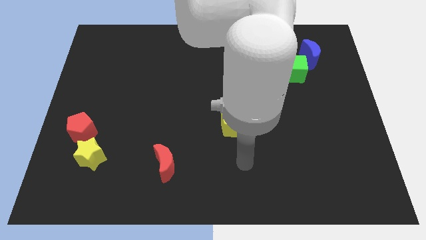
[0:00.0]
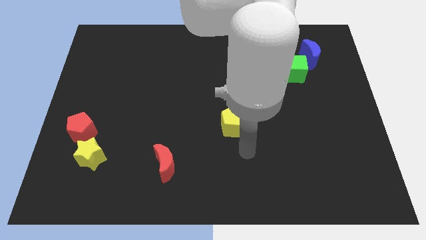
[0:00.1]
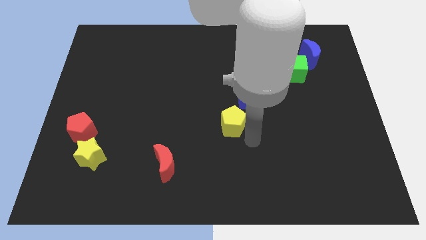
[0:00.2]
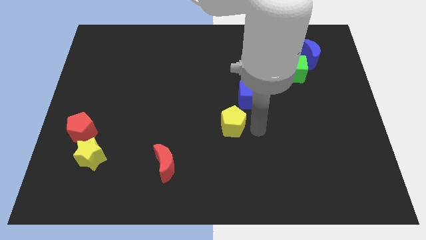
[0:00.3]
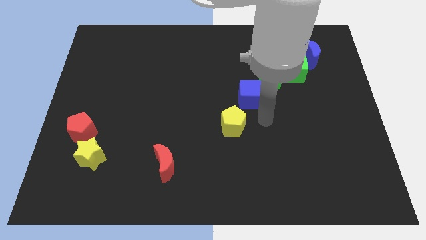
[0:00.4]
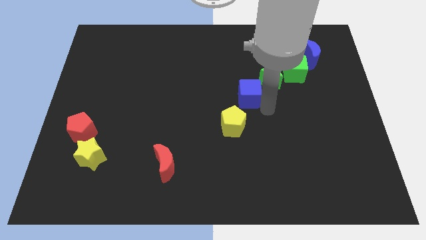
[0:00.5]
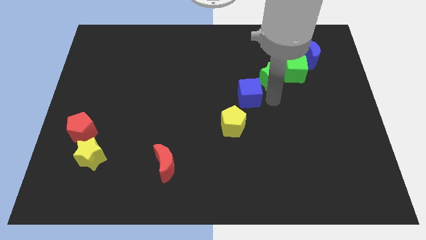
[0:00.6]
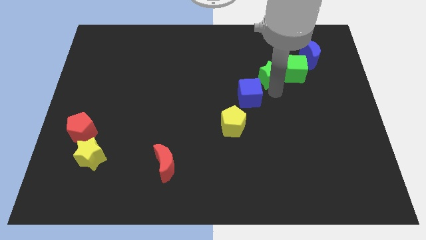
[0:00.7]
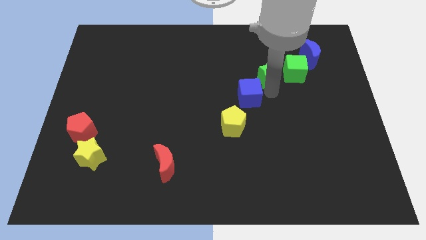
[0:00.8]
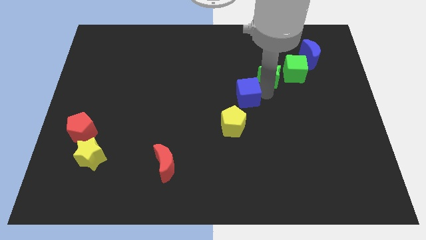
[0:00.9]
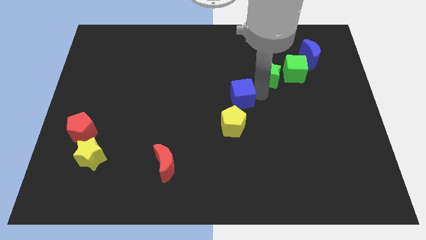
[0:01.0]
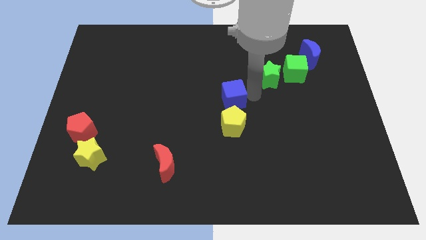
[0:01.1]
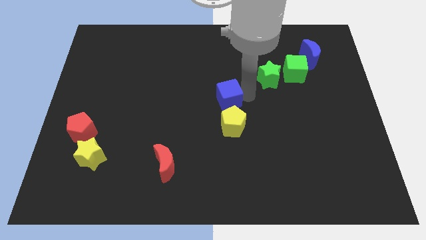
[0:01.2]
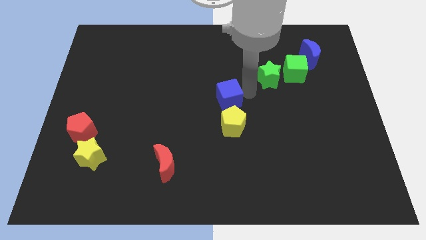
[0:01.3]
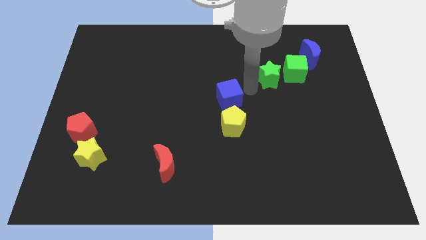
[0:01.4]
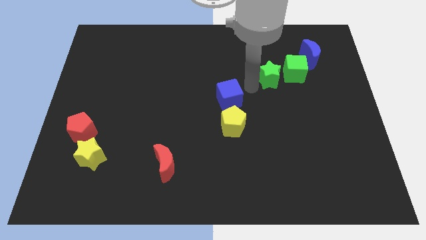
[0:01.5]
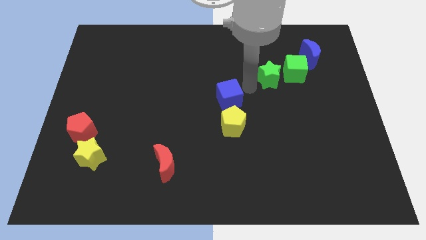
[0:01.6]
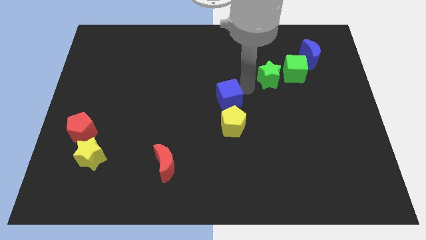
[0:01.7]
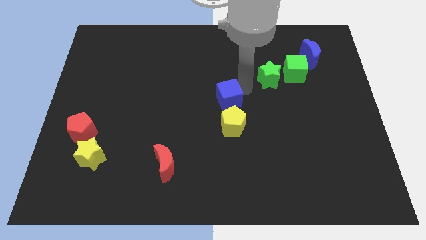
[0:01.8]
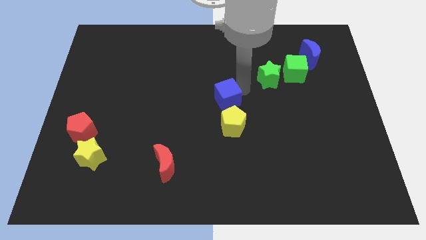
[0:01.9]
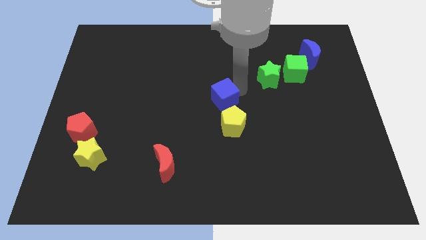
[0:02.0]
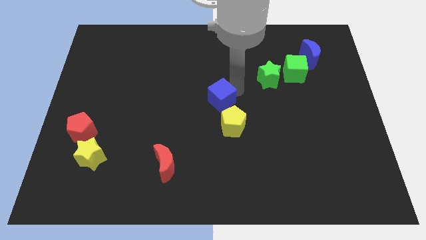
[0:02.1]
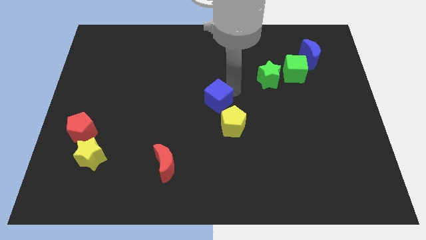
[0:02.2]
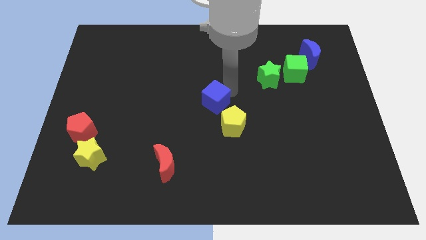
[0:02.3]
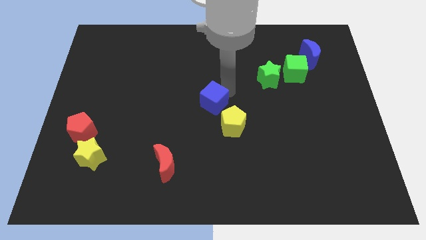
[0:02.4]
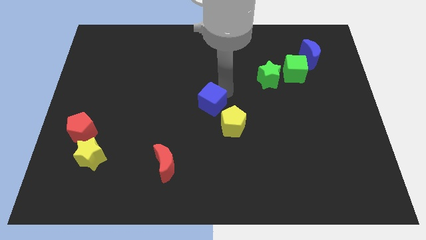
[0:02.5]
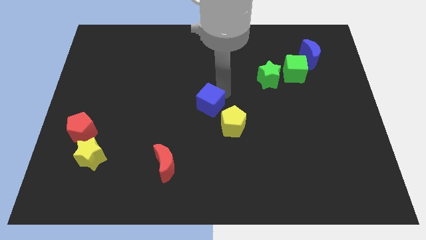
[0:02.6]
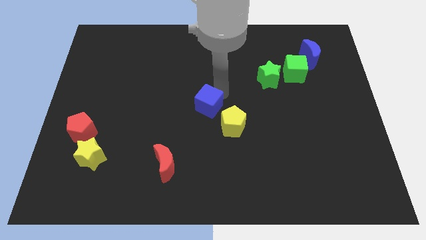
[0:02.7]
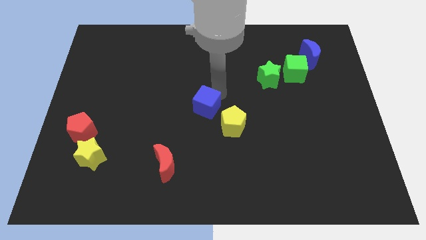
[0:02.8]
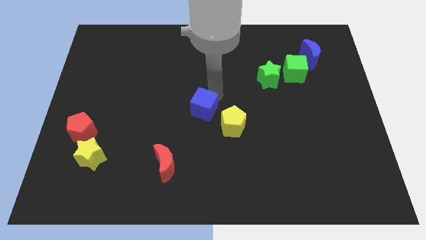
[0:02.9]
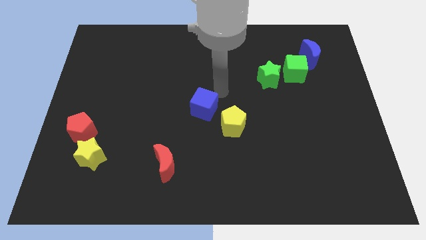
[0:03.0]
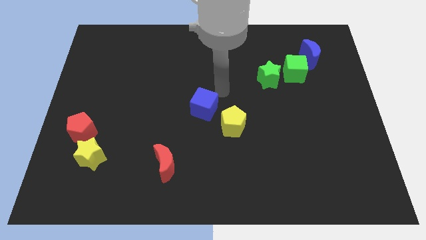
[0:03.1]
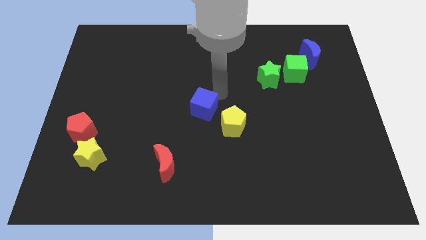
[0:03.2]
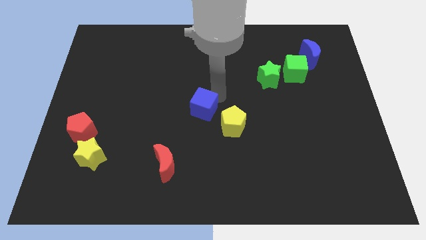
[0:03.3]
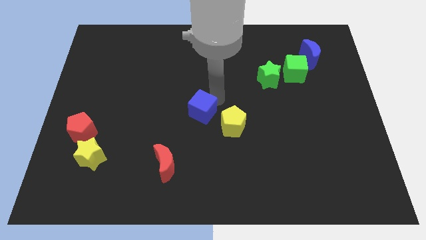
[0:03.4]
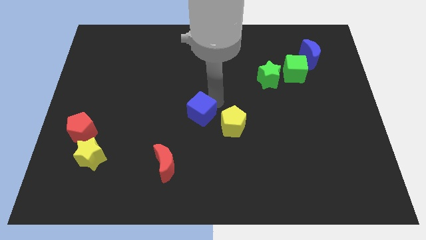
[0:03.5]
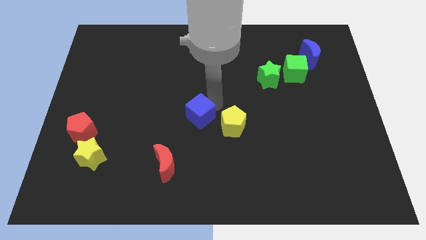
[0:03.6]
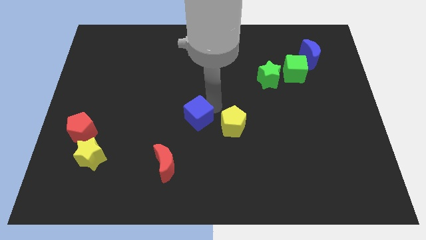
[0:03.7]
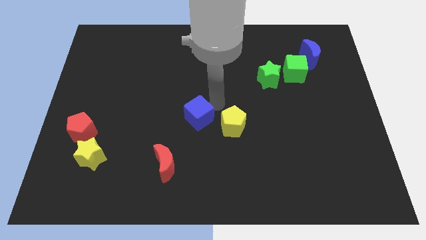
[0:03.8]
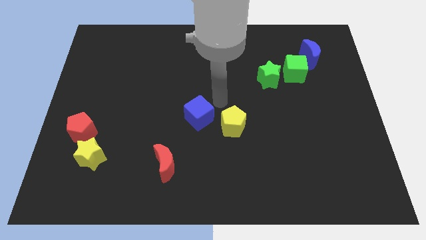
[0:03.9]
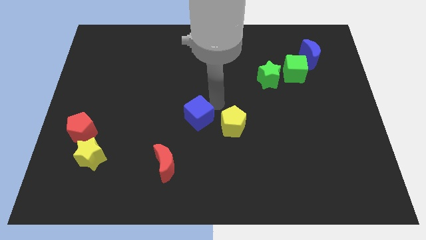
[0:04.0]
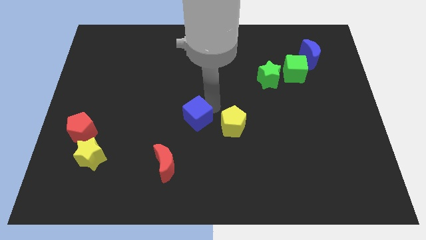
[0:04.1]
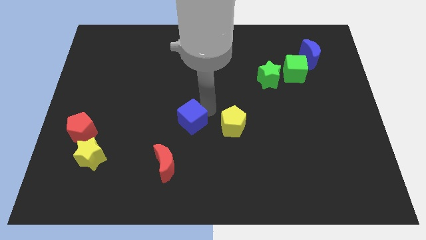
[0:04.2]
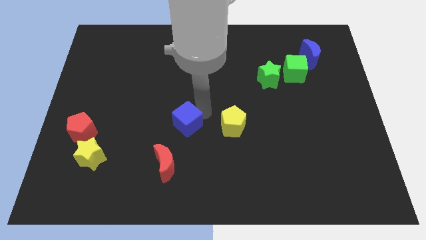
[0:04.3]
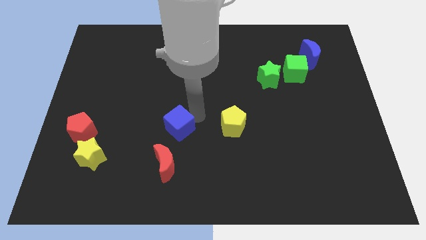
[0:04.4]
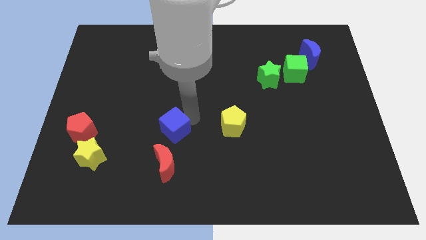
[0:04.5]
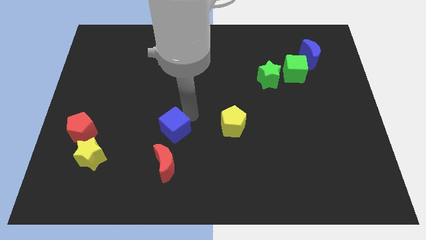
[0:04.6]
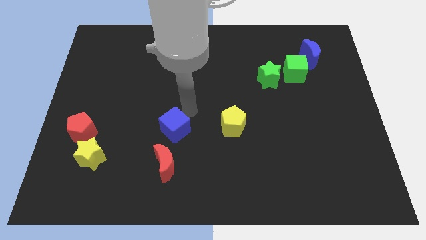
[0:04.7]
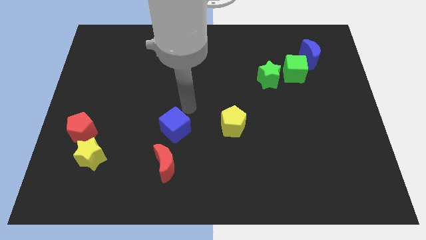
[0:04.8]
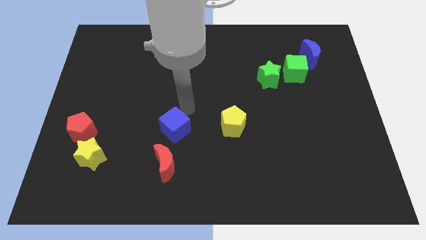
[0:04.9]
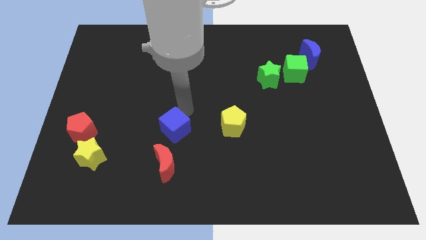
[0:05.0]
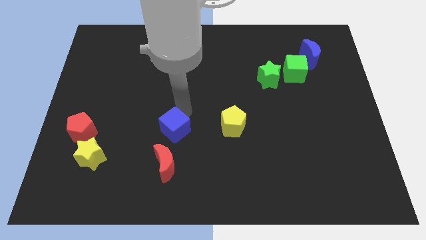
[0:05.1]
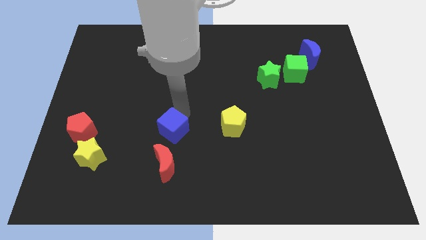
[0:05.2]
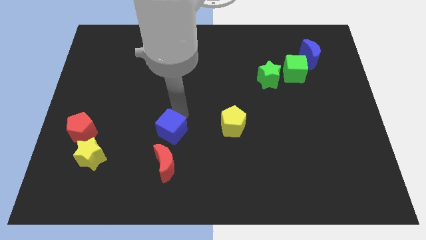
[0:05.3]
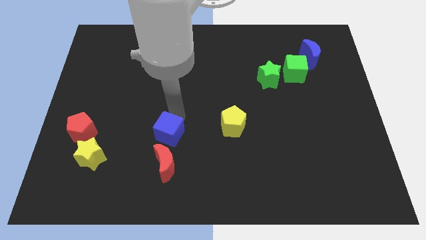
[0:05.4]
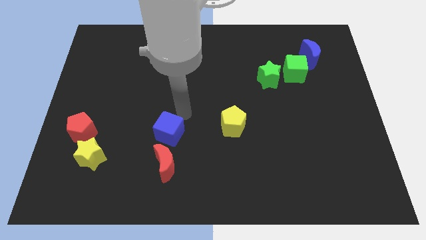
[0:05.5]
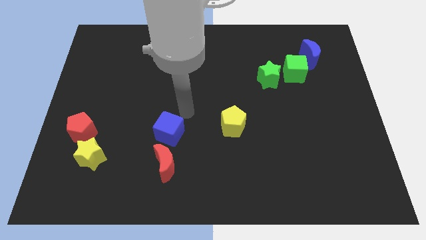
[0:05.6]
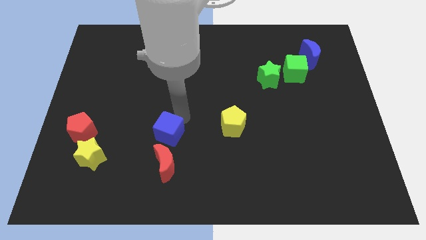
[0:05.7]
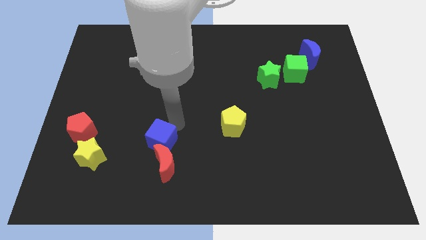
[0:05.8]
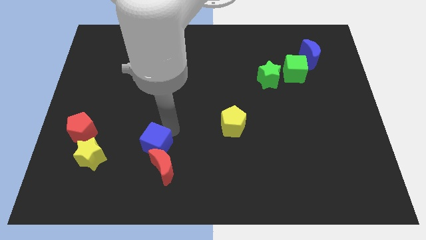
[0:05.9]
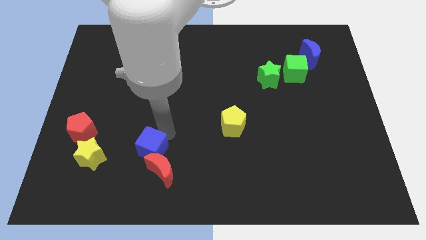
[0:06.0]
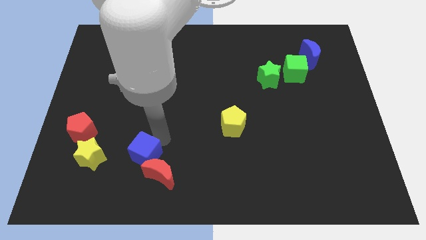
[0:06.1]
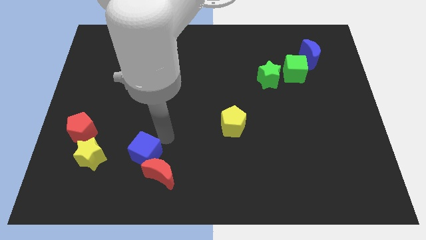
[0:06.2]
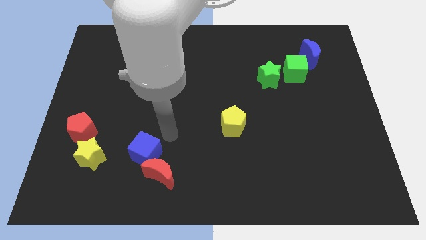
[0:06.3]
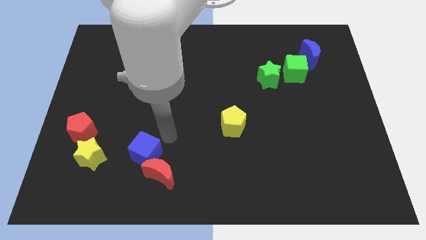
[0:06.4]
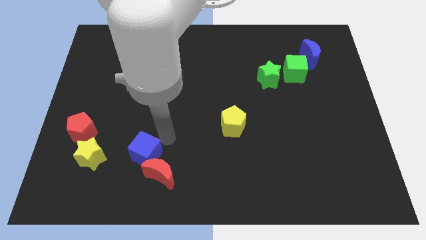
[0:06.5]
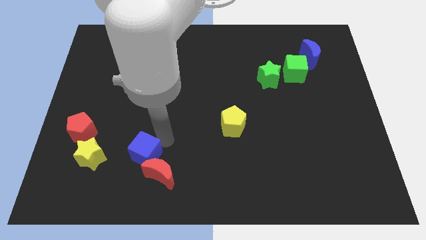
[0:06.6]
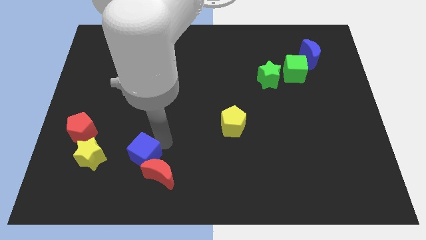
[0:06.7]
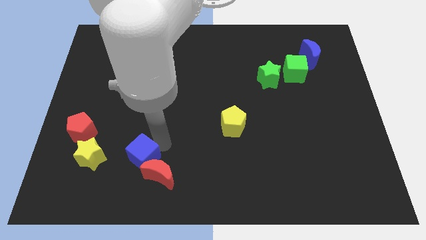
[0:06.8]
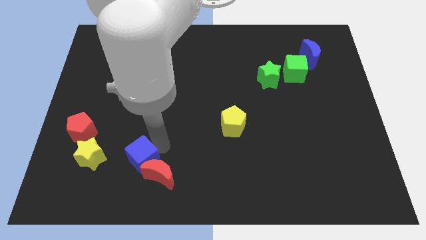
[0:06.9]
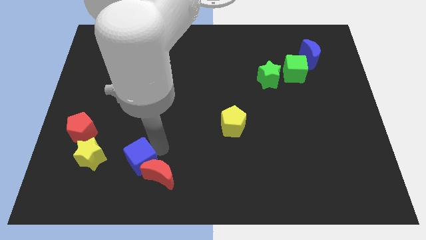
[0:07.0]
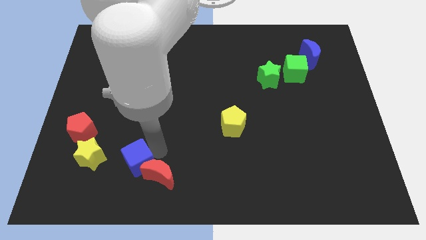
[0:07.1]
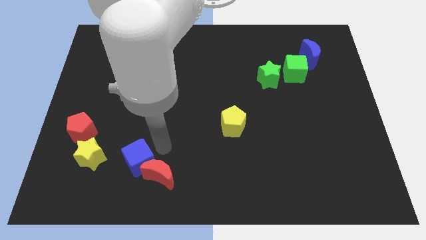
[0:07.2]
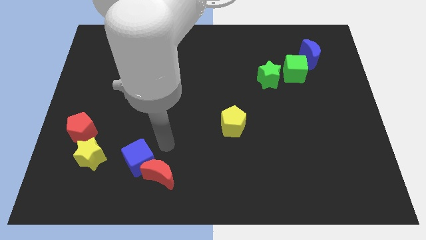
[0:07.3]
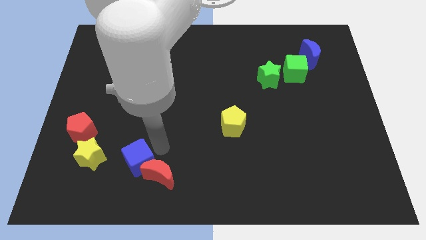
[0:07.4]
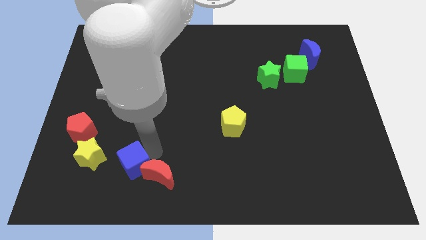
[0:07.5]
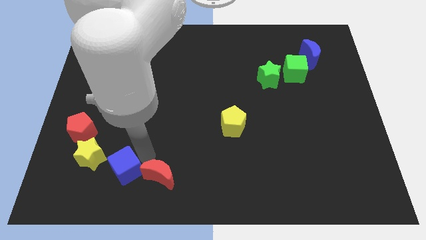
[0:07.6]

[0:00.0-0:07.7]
move the blue cube diagonally down and to the right of the yellow star

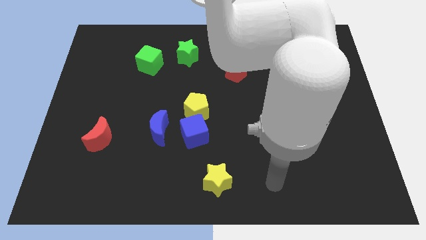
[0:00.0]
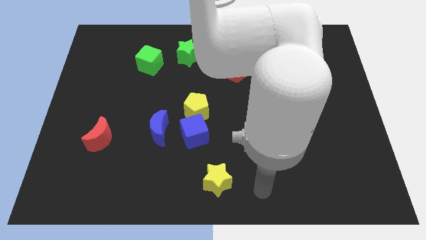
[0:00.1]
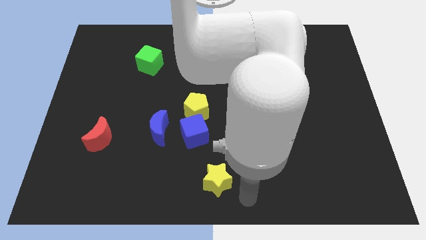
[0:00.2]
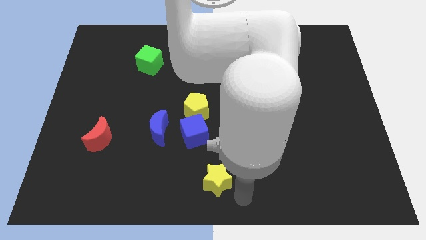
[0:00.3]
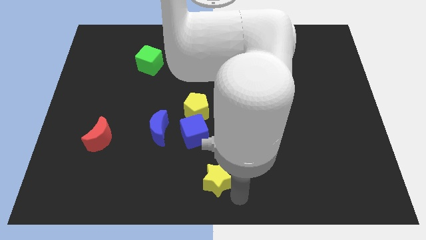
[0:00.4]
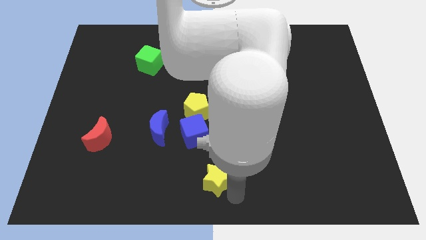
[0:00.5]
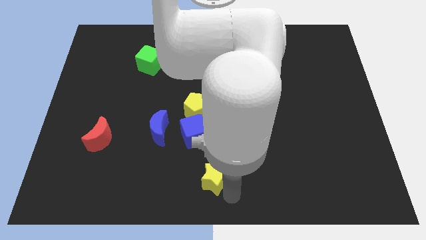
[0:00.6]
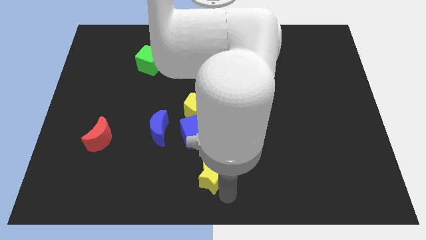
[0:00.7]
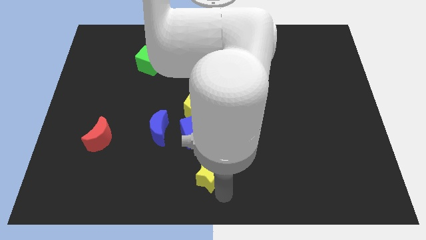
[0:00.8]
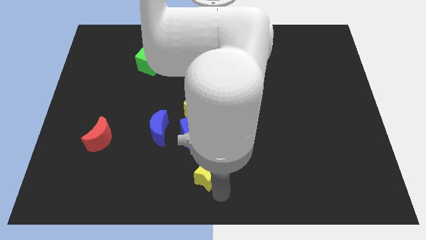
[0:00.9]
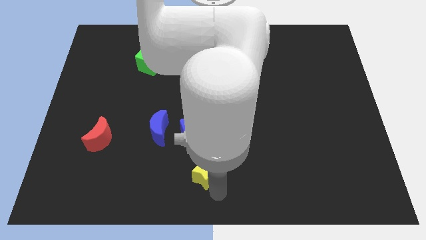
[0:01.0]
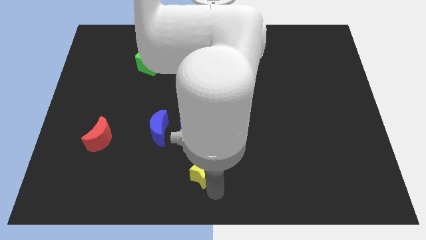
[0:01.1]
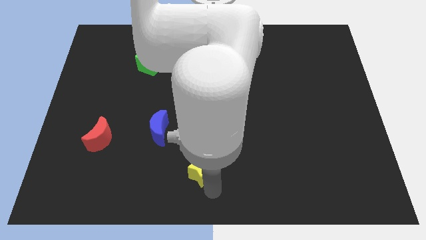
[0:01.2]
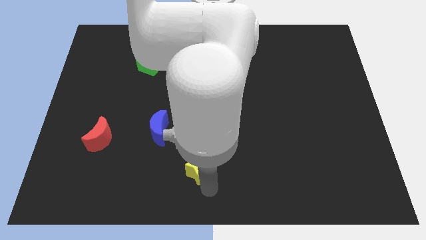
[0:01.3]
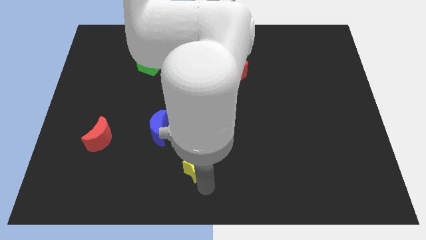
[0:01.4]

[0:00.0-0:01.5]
push the yellow star diagonally down and to the right of the blue moon
